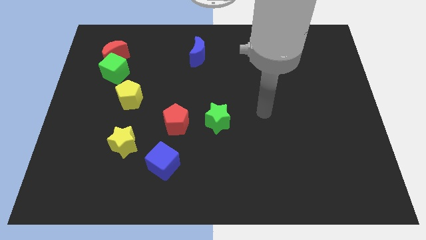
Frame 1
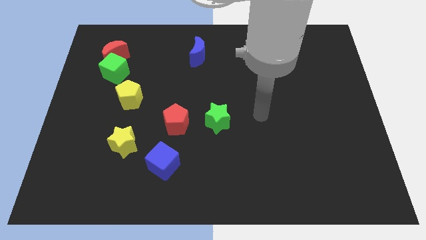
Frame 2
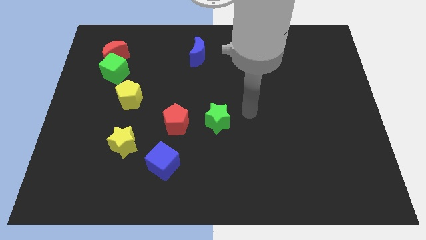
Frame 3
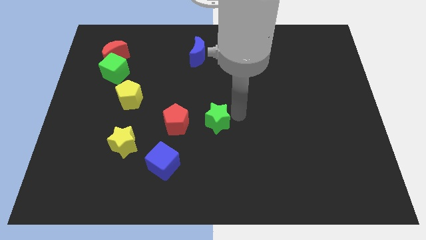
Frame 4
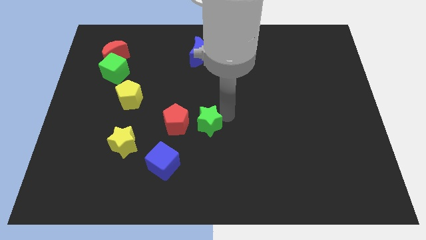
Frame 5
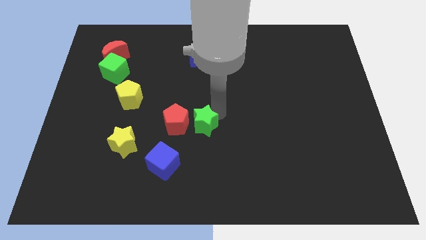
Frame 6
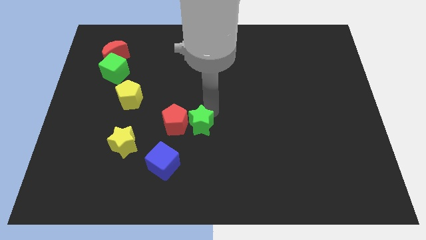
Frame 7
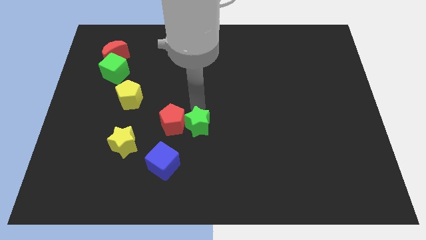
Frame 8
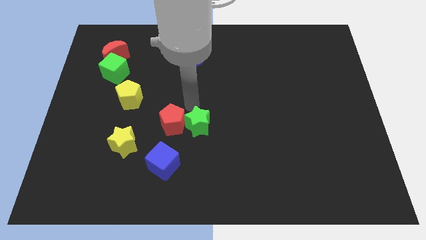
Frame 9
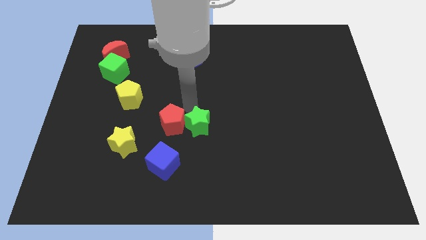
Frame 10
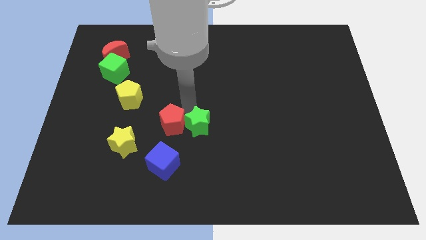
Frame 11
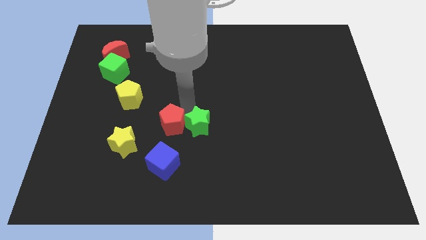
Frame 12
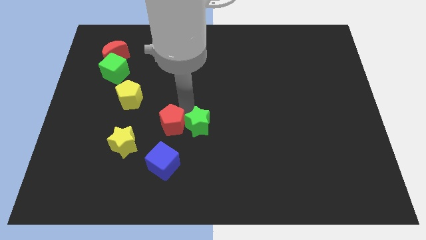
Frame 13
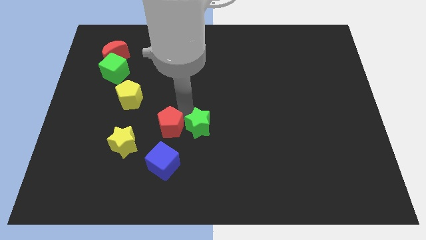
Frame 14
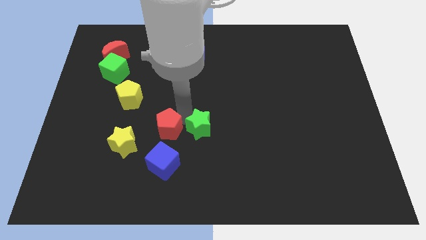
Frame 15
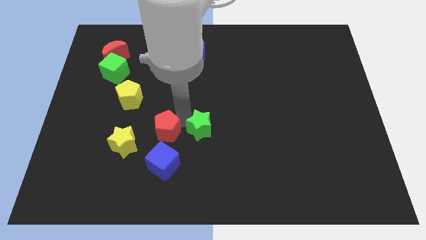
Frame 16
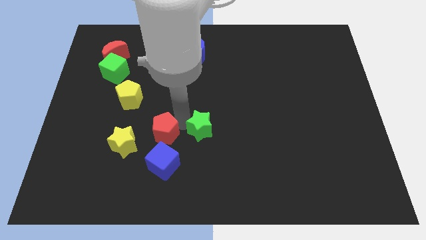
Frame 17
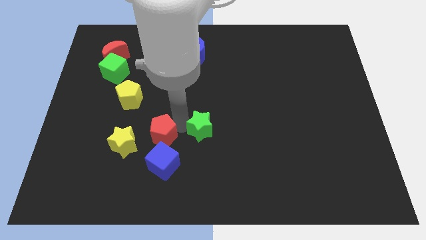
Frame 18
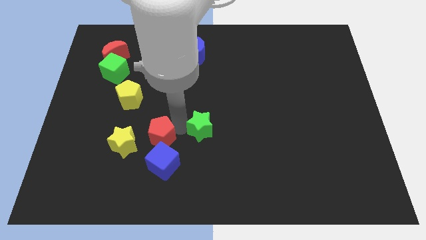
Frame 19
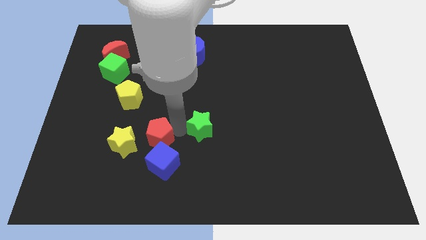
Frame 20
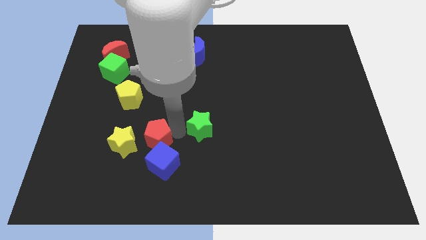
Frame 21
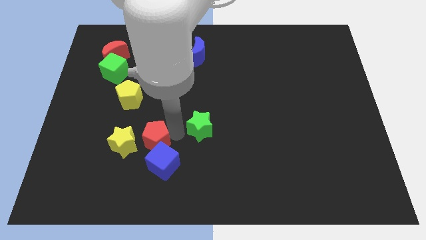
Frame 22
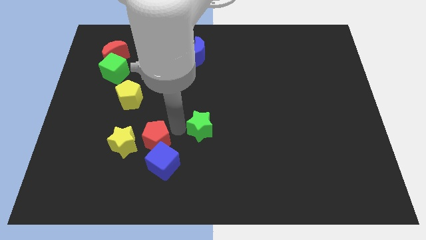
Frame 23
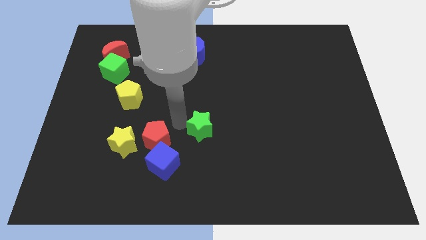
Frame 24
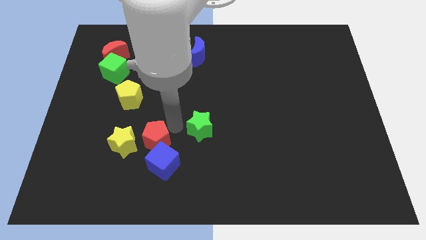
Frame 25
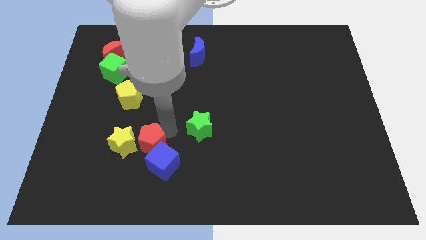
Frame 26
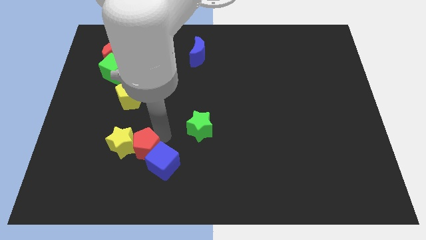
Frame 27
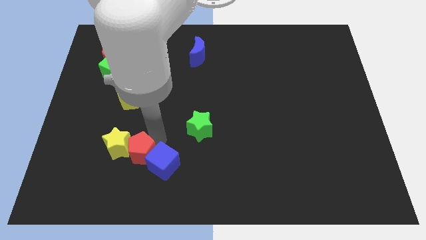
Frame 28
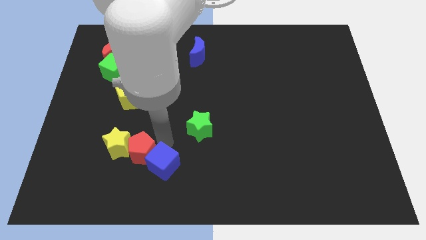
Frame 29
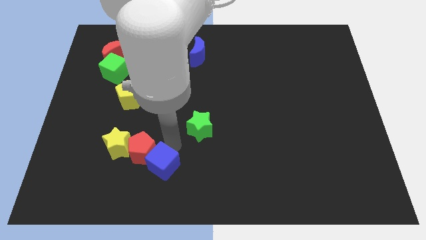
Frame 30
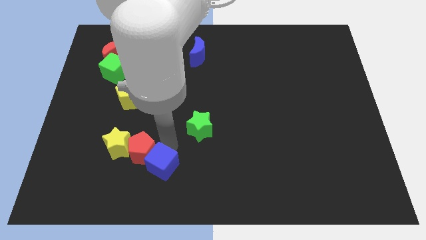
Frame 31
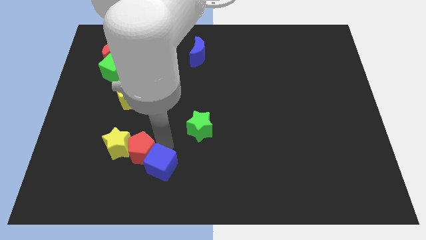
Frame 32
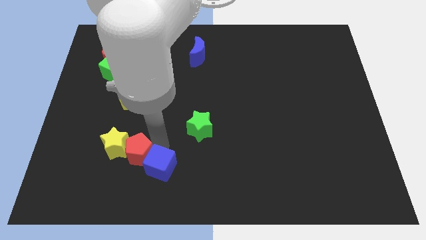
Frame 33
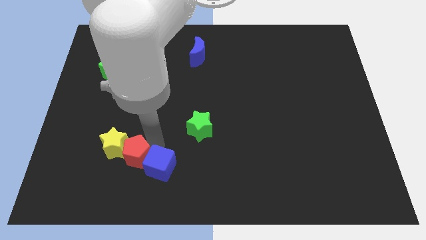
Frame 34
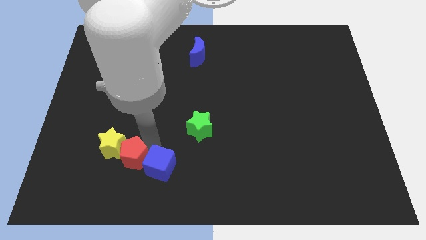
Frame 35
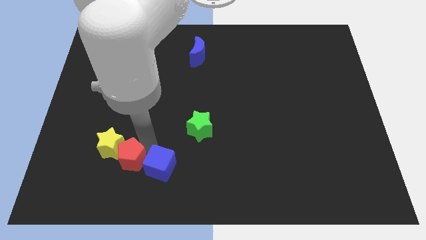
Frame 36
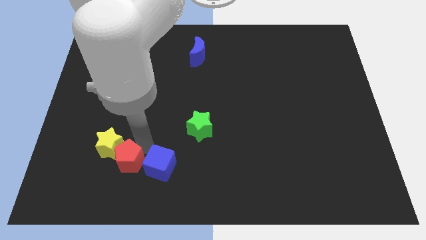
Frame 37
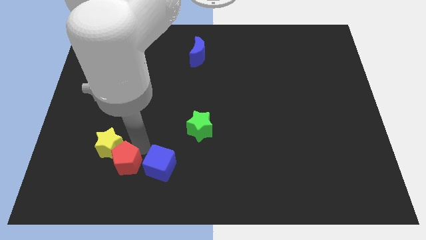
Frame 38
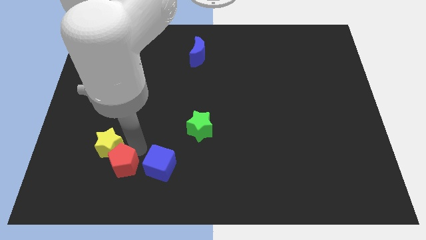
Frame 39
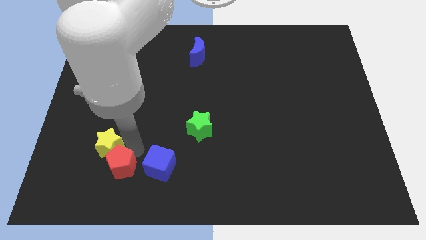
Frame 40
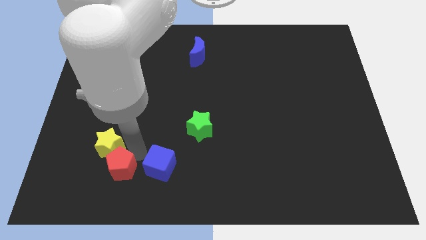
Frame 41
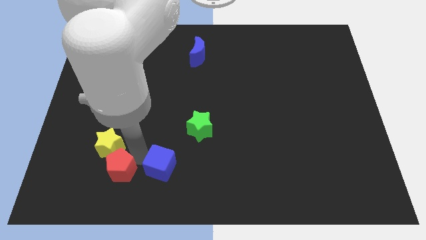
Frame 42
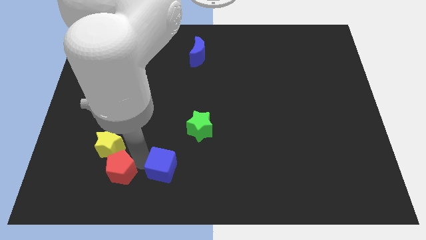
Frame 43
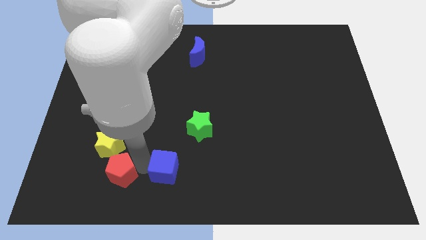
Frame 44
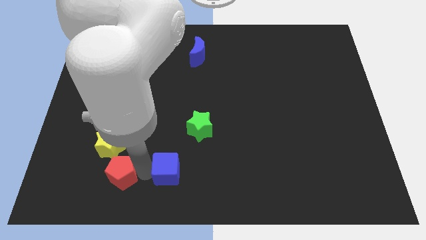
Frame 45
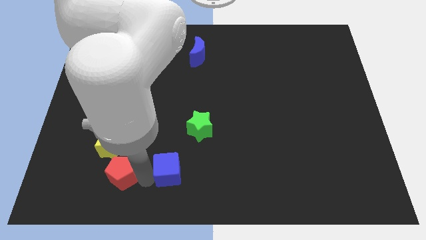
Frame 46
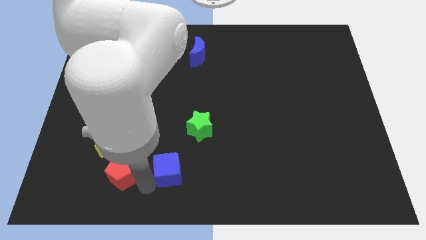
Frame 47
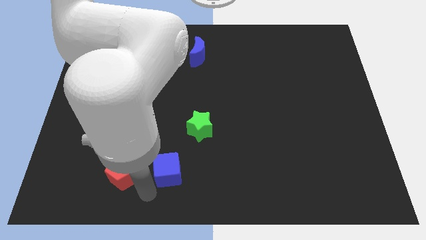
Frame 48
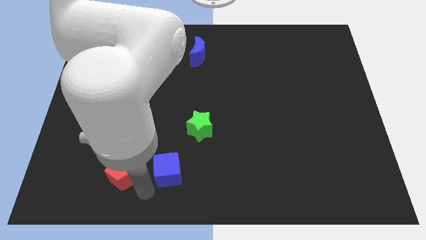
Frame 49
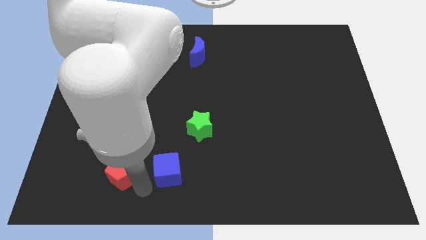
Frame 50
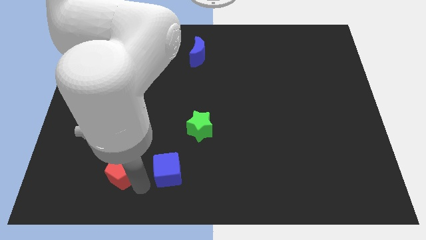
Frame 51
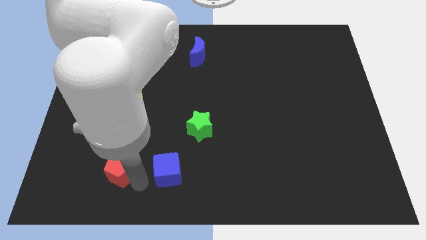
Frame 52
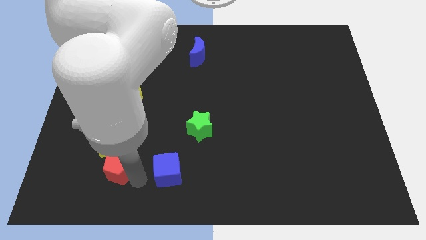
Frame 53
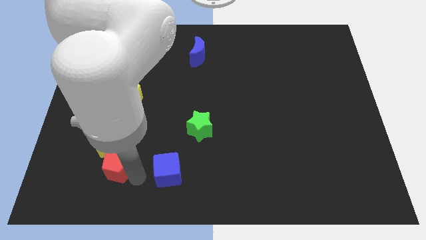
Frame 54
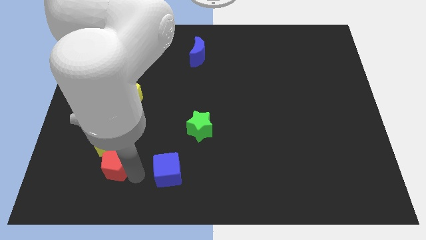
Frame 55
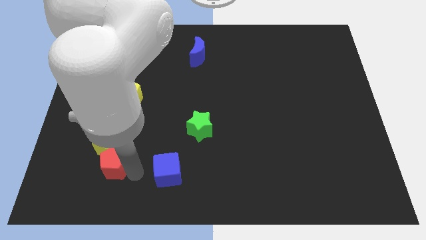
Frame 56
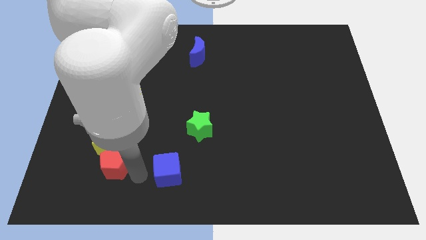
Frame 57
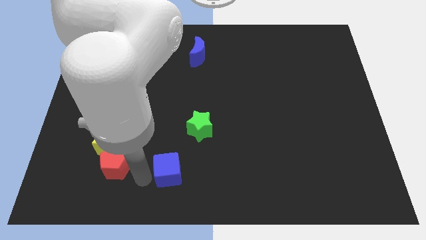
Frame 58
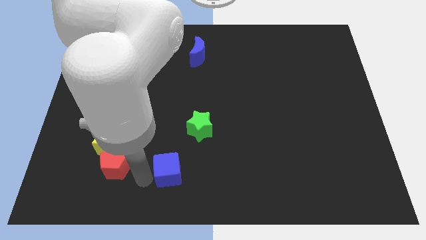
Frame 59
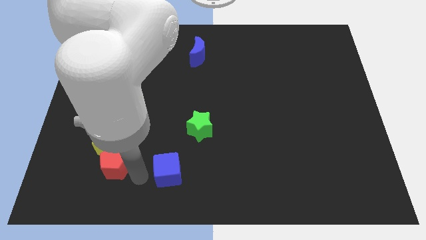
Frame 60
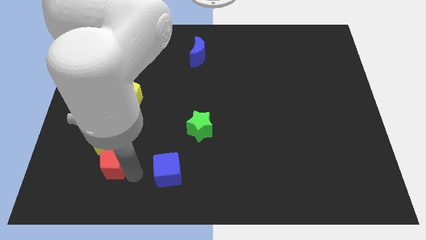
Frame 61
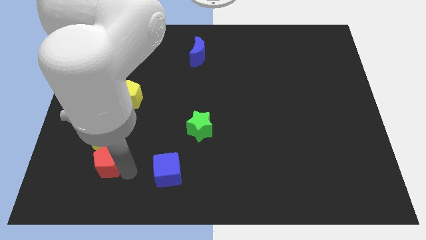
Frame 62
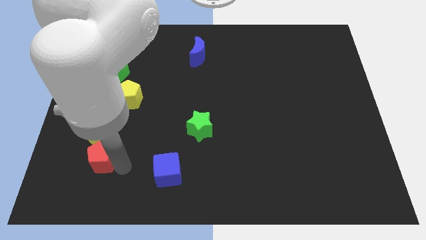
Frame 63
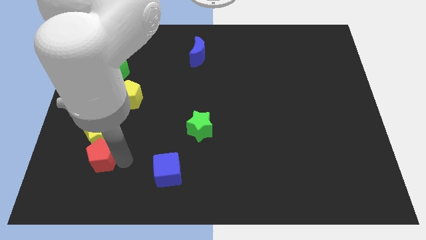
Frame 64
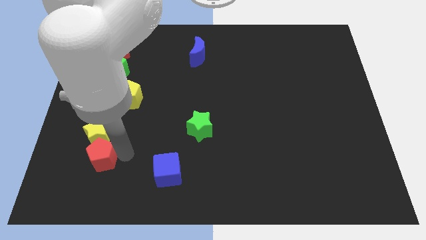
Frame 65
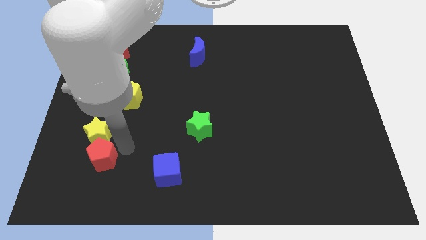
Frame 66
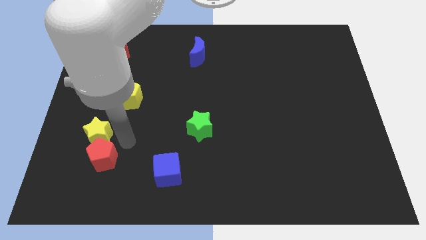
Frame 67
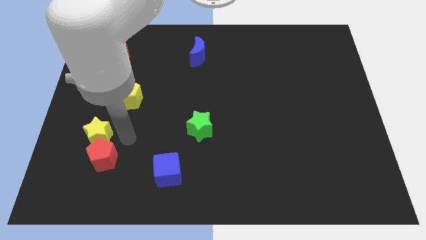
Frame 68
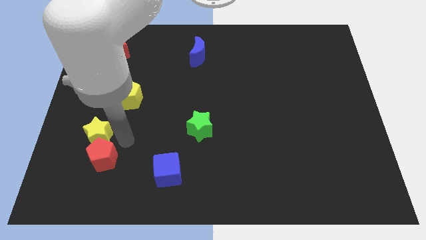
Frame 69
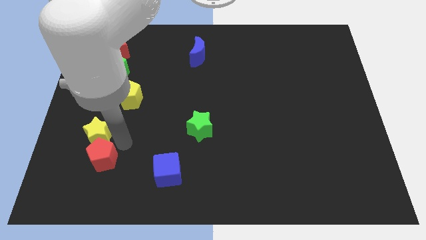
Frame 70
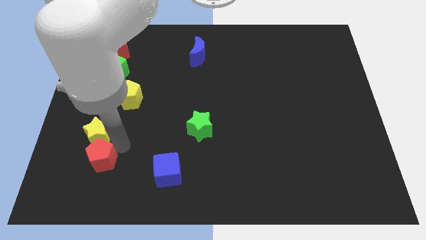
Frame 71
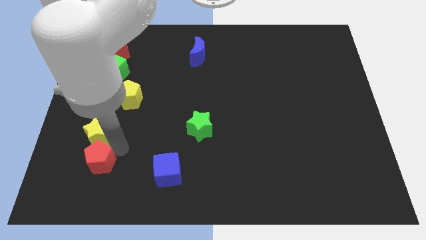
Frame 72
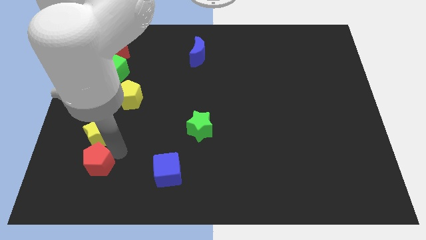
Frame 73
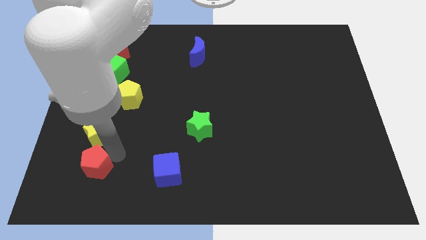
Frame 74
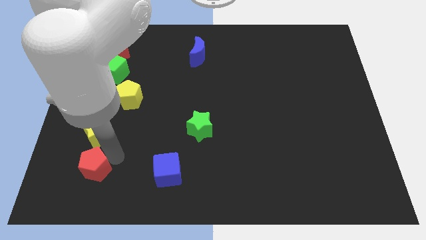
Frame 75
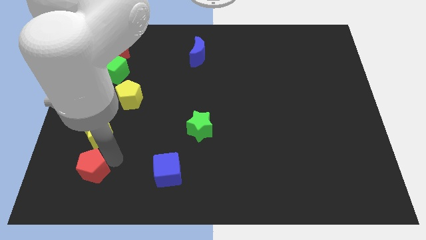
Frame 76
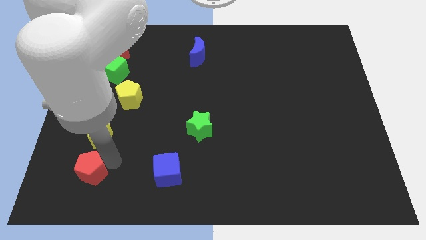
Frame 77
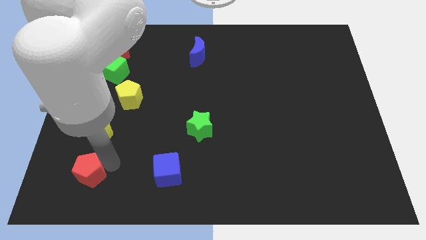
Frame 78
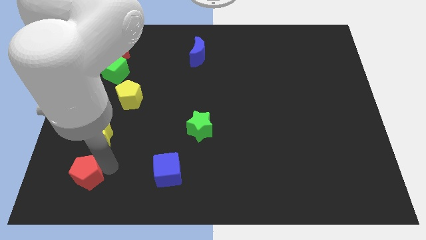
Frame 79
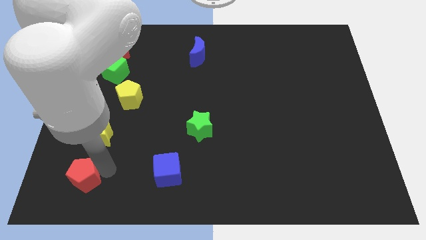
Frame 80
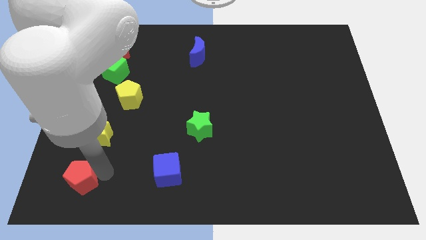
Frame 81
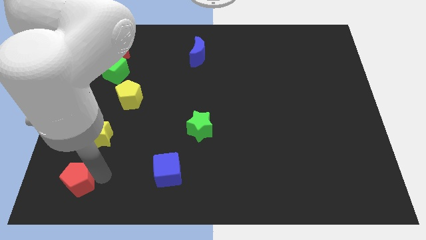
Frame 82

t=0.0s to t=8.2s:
put the red pentagon to the lower left corner
